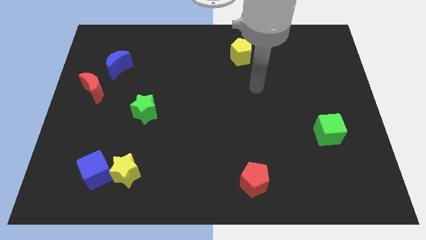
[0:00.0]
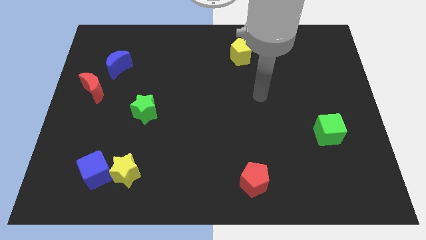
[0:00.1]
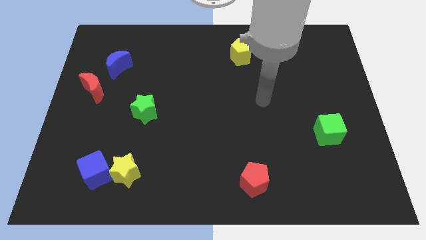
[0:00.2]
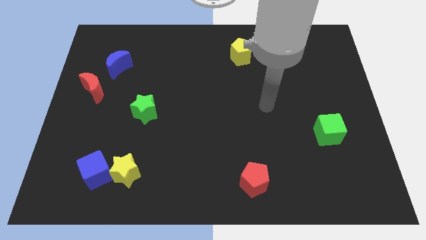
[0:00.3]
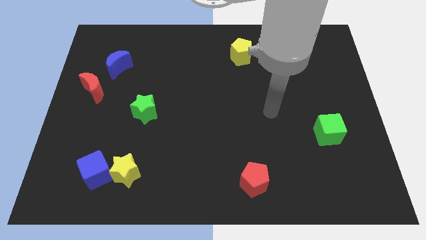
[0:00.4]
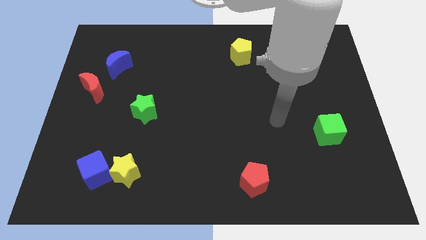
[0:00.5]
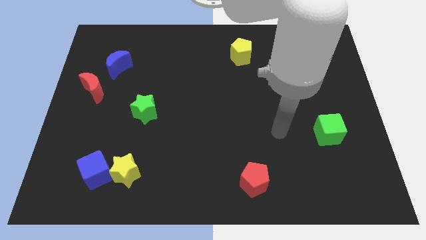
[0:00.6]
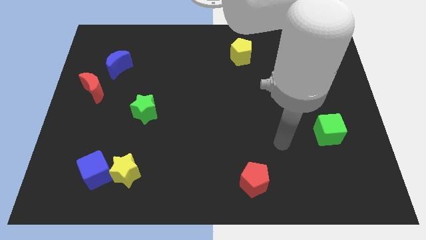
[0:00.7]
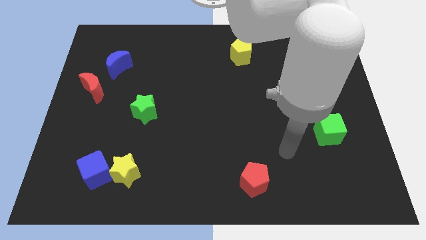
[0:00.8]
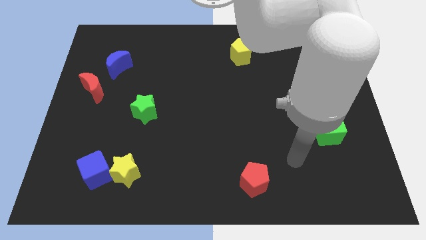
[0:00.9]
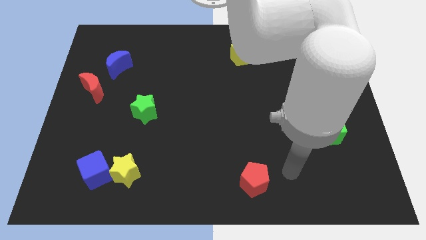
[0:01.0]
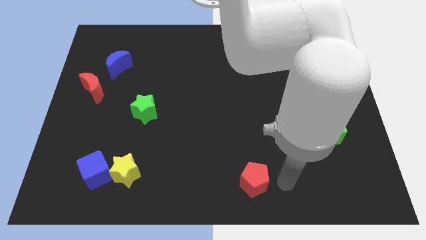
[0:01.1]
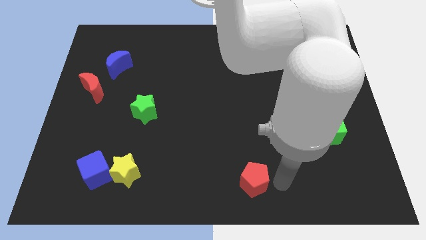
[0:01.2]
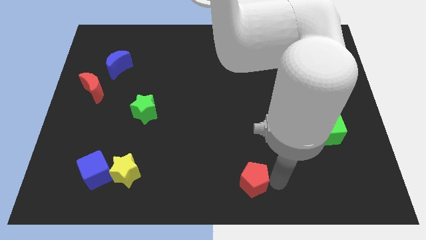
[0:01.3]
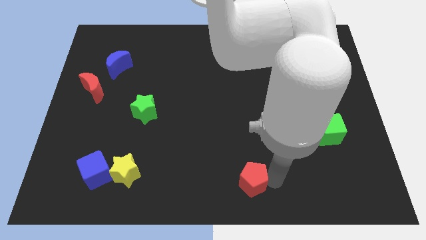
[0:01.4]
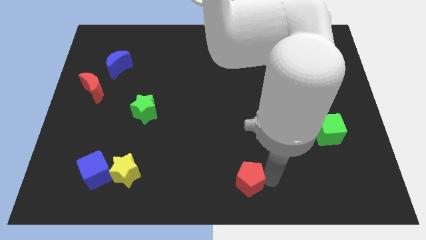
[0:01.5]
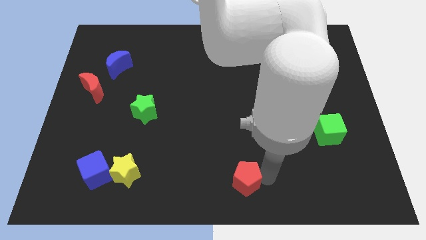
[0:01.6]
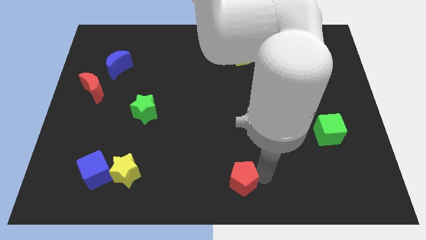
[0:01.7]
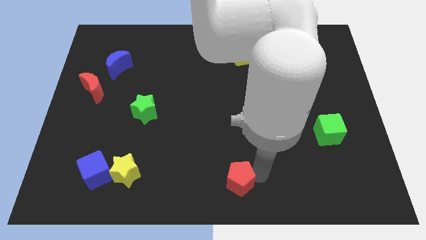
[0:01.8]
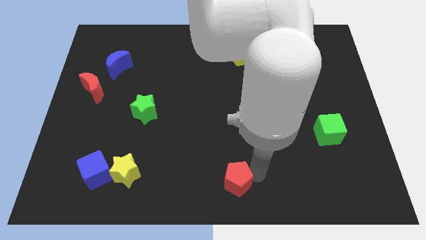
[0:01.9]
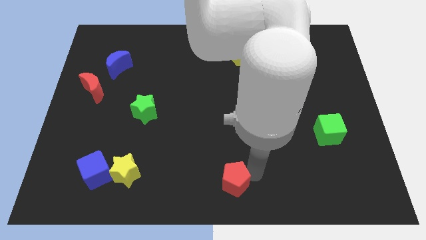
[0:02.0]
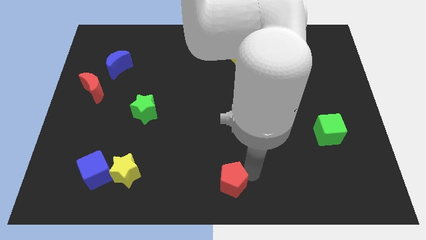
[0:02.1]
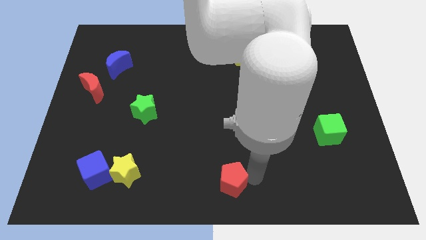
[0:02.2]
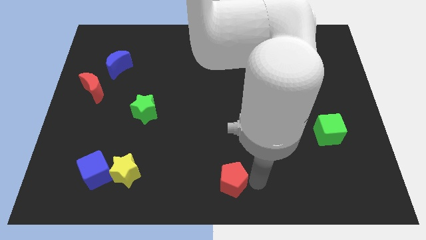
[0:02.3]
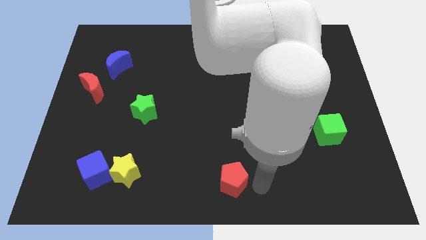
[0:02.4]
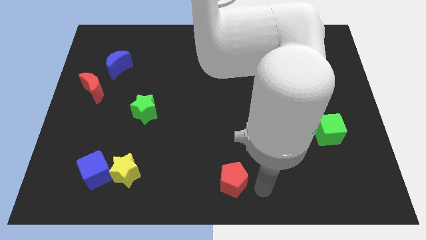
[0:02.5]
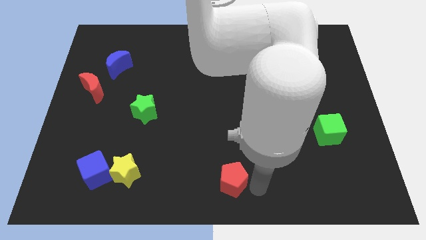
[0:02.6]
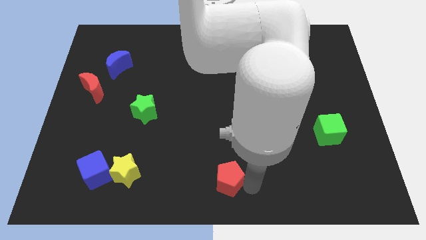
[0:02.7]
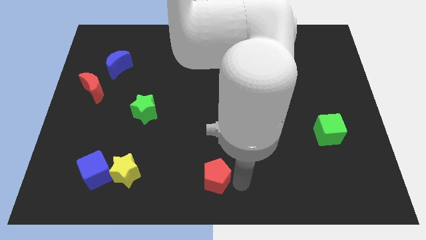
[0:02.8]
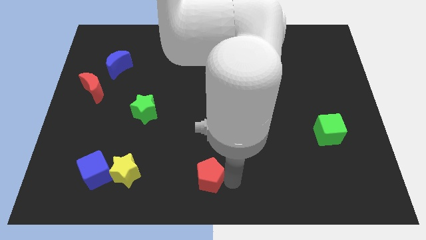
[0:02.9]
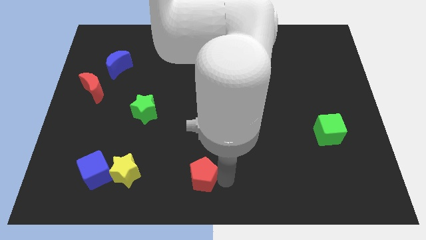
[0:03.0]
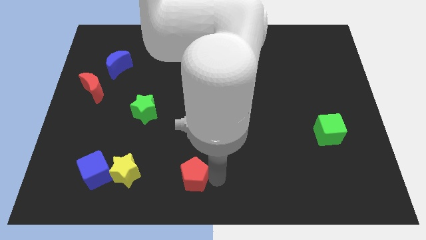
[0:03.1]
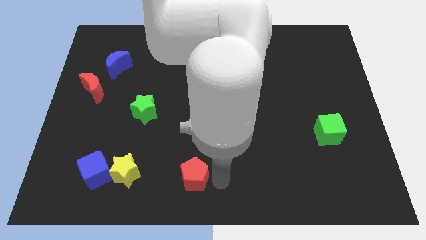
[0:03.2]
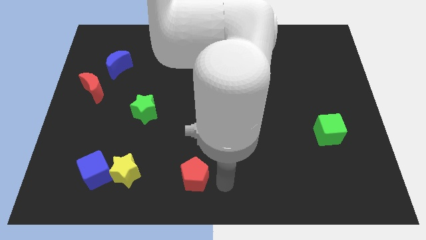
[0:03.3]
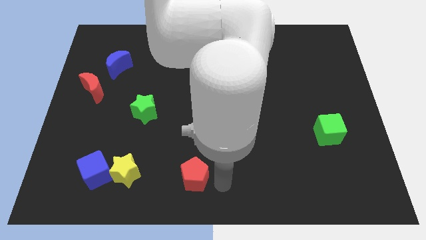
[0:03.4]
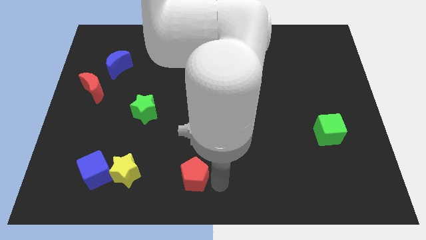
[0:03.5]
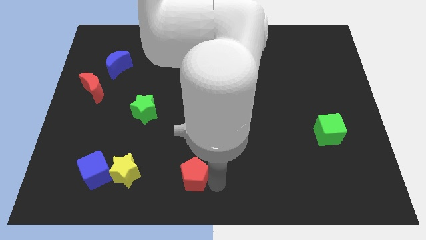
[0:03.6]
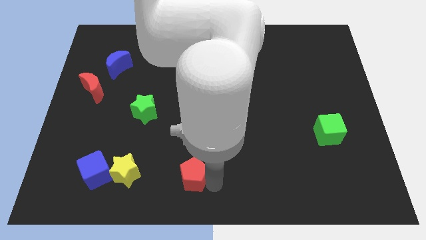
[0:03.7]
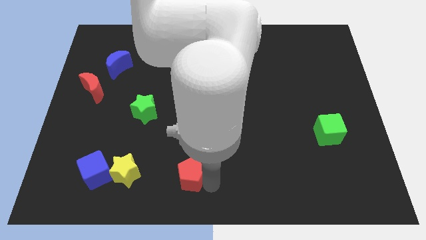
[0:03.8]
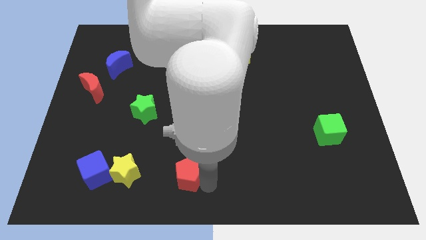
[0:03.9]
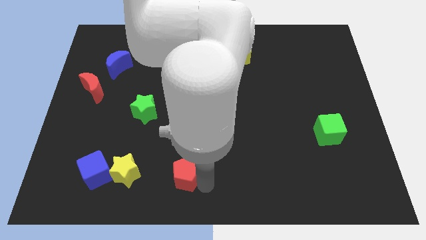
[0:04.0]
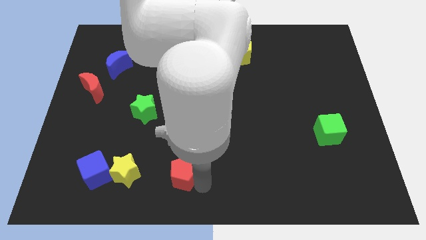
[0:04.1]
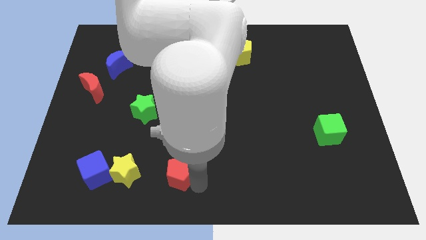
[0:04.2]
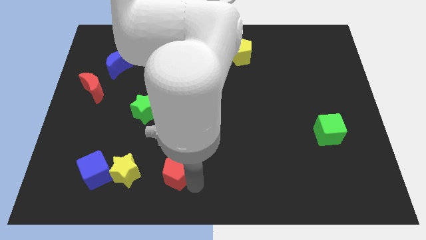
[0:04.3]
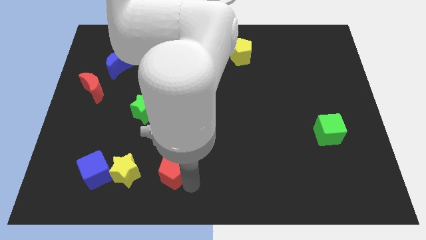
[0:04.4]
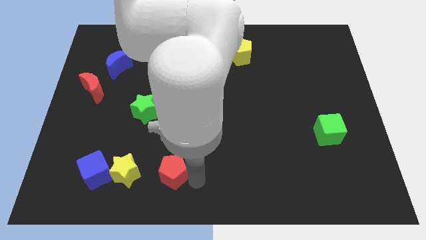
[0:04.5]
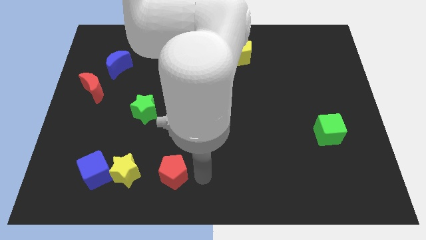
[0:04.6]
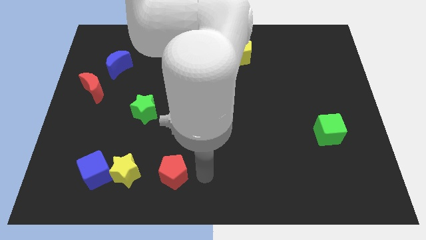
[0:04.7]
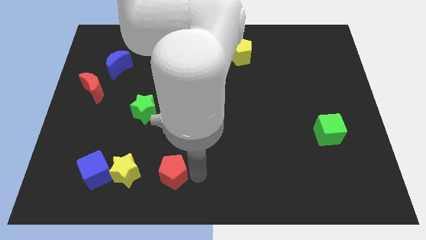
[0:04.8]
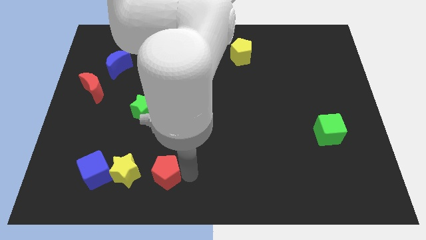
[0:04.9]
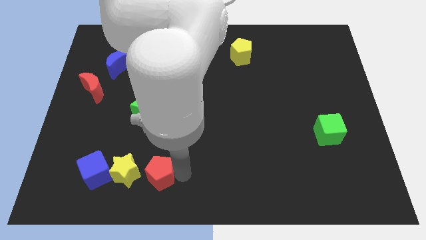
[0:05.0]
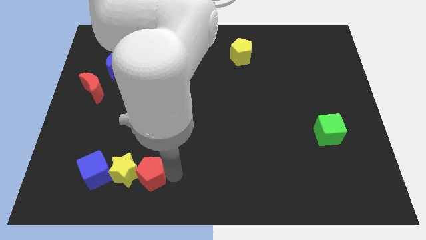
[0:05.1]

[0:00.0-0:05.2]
push the red pentagon to the yellow star

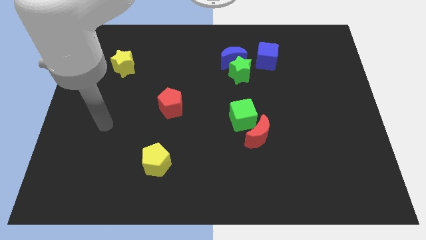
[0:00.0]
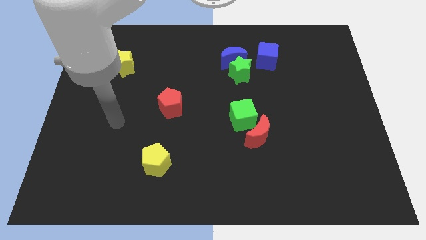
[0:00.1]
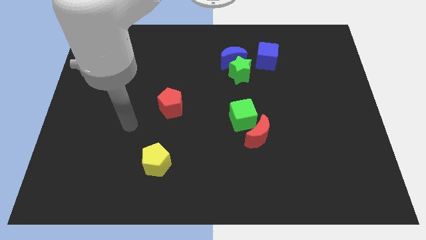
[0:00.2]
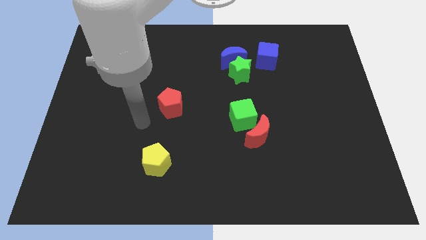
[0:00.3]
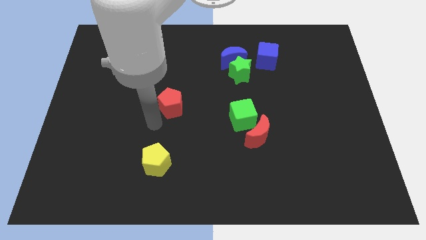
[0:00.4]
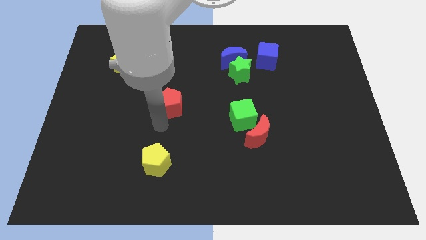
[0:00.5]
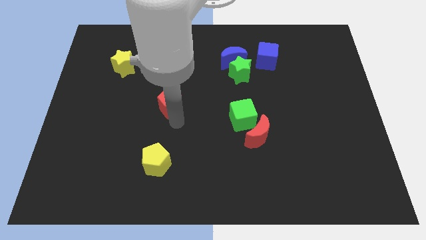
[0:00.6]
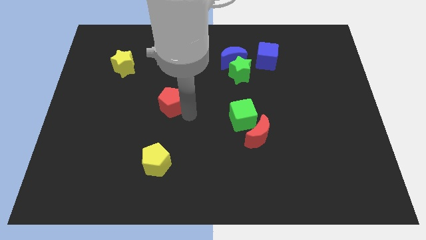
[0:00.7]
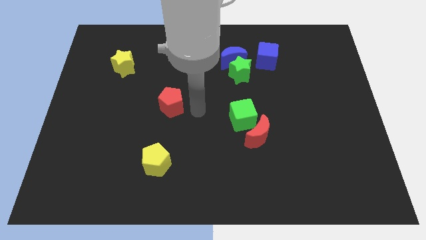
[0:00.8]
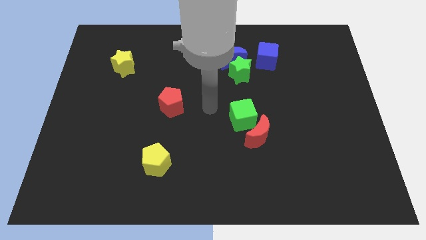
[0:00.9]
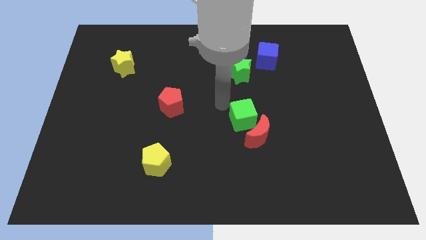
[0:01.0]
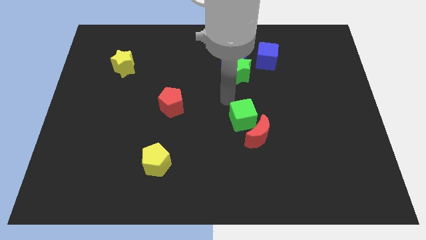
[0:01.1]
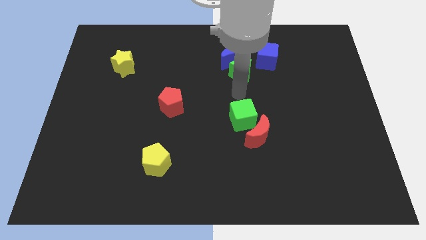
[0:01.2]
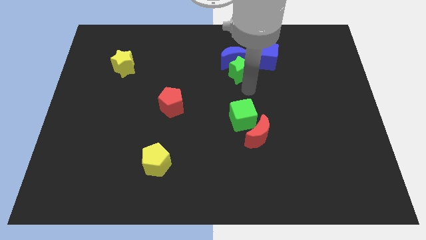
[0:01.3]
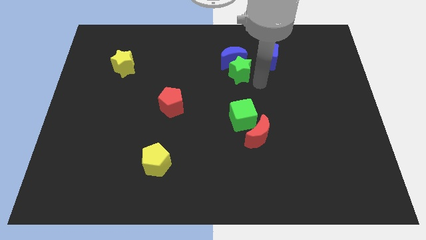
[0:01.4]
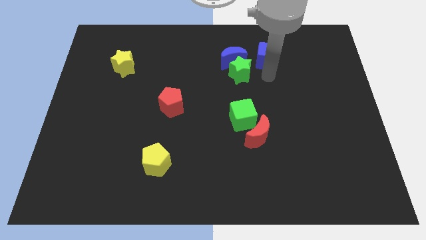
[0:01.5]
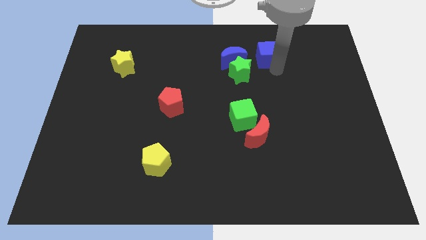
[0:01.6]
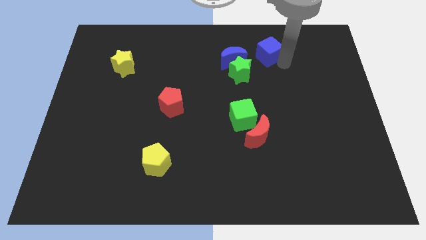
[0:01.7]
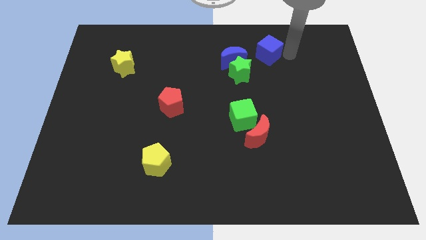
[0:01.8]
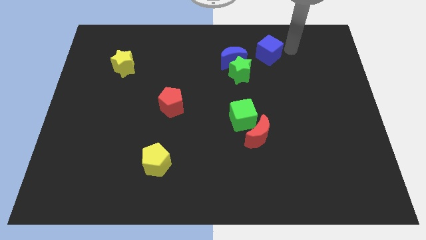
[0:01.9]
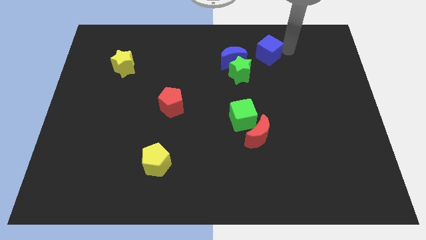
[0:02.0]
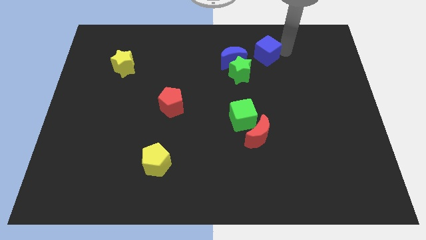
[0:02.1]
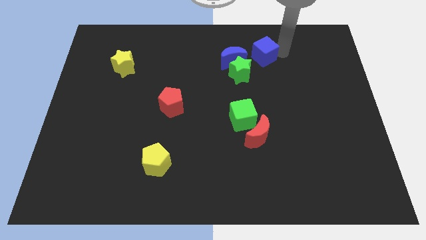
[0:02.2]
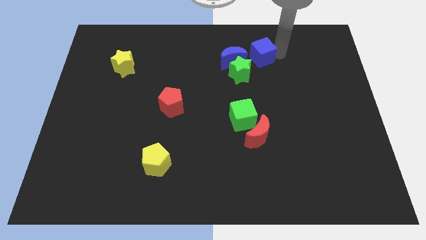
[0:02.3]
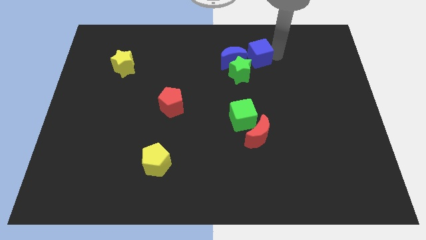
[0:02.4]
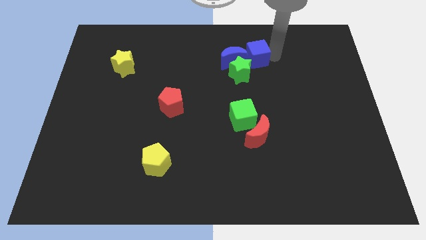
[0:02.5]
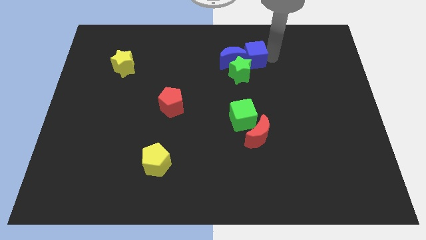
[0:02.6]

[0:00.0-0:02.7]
slide the blue cube close to the blue moon
